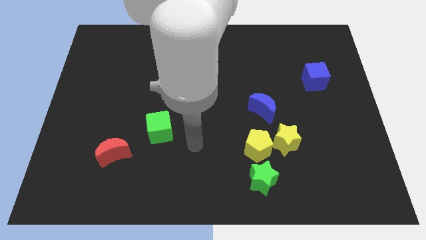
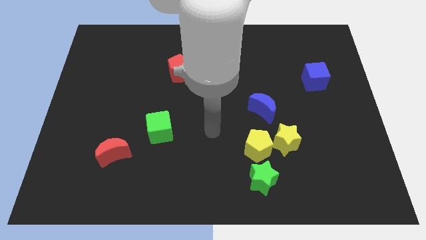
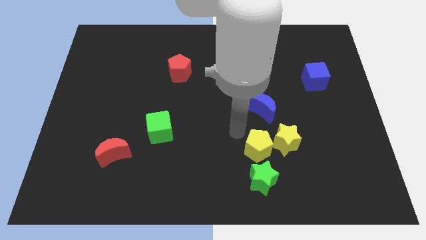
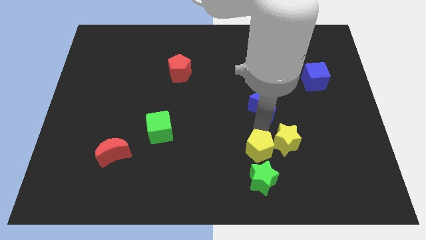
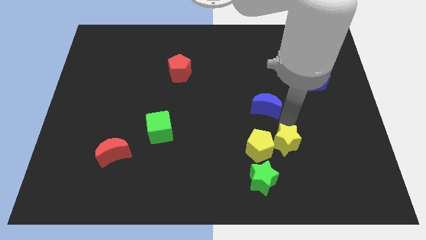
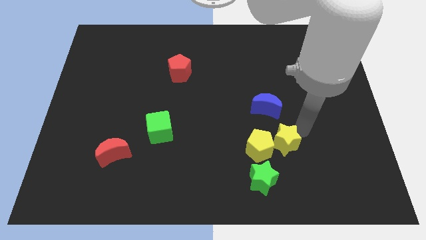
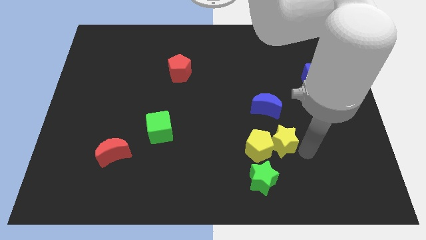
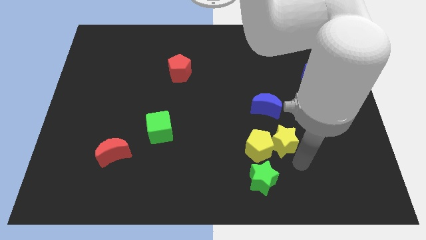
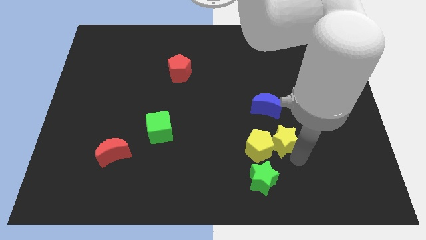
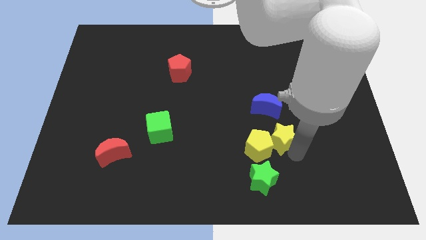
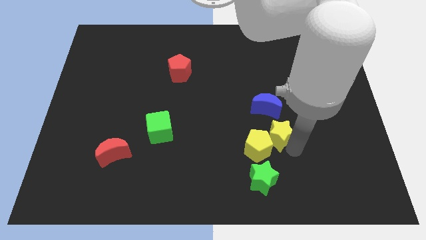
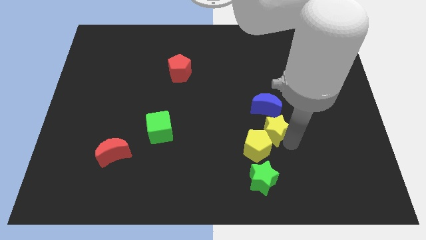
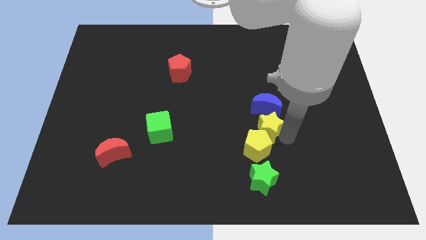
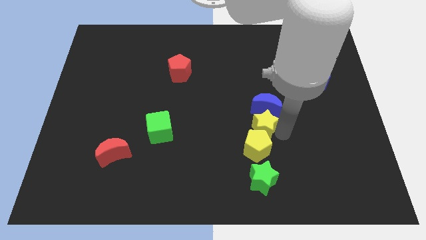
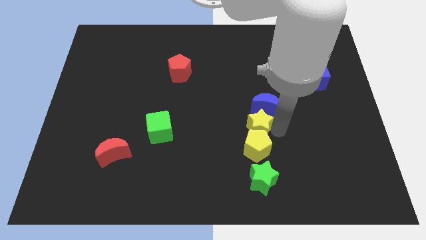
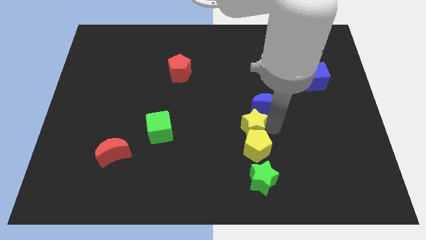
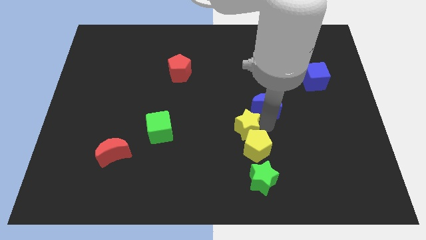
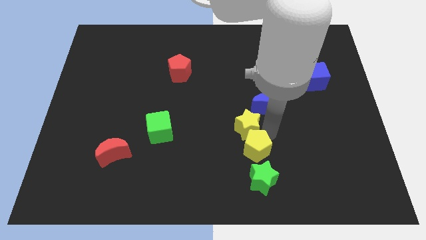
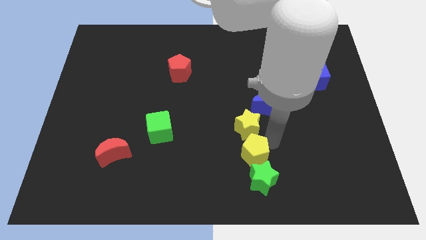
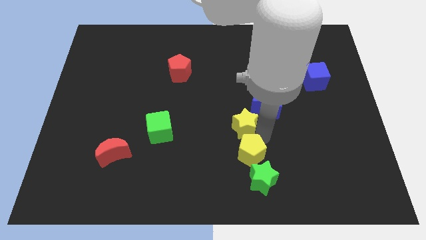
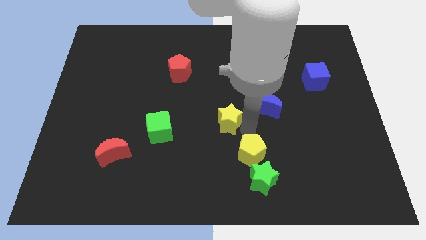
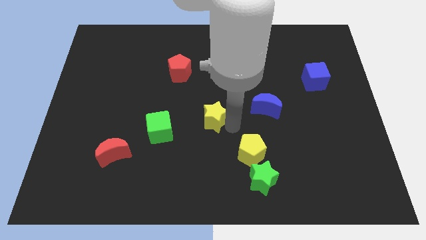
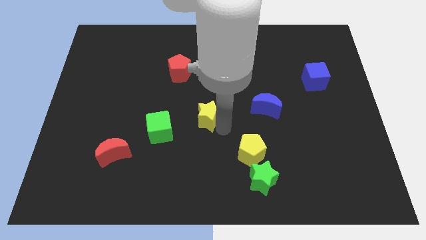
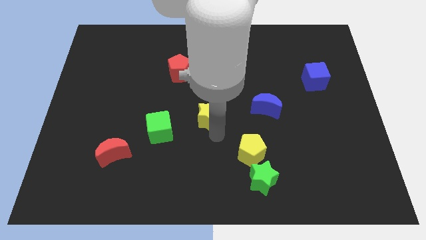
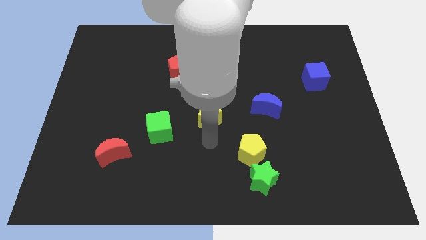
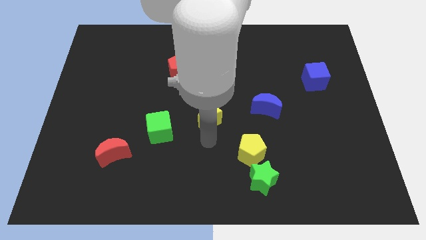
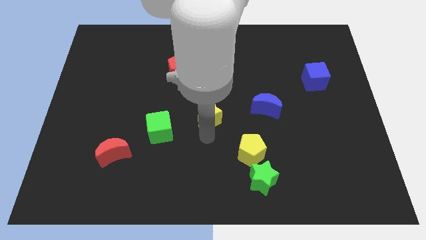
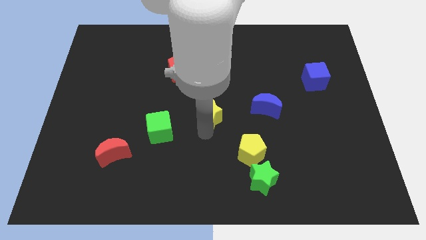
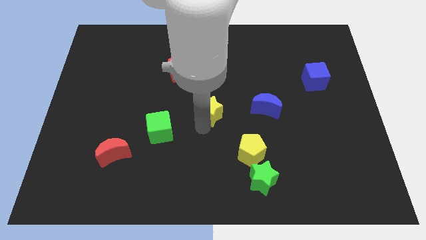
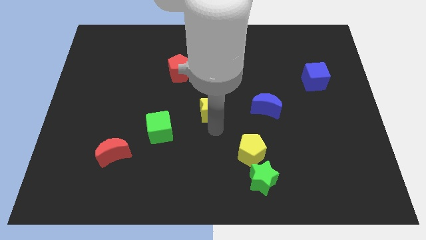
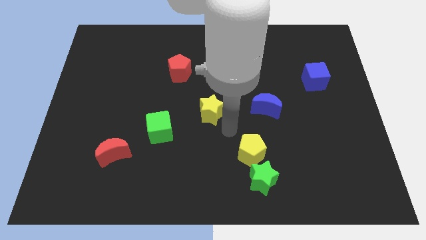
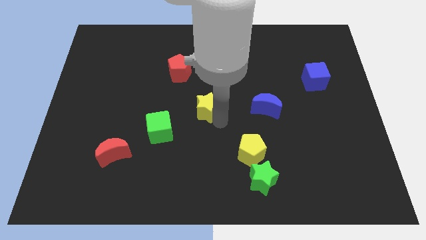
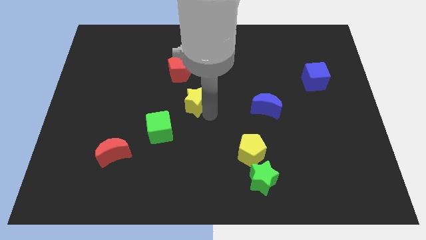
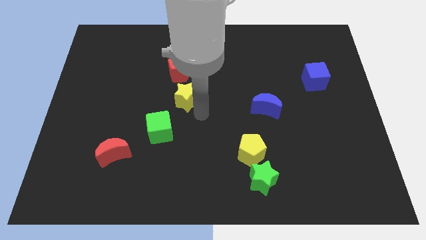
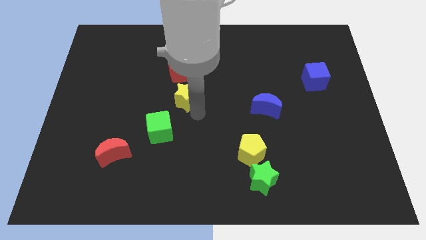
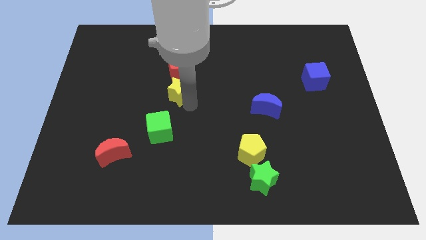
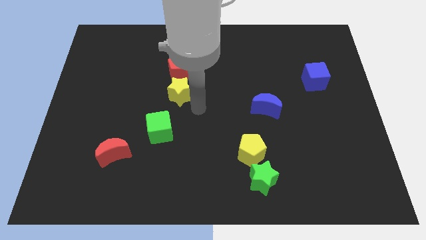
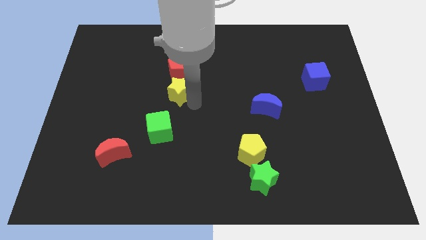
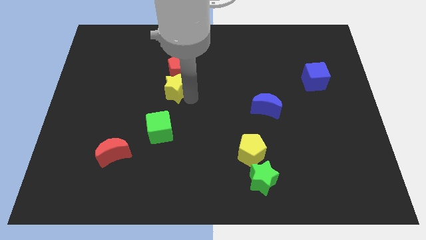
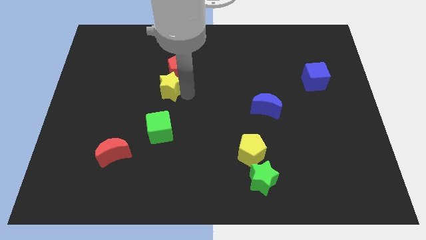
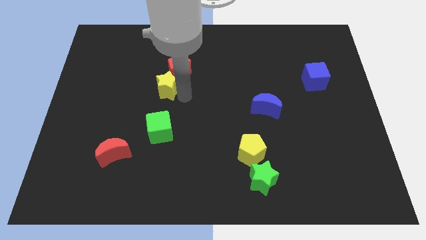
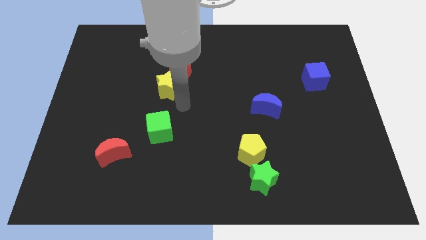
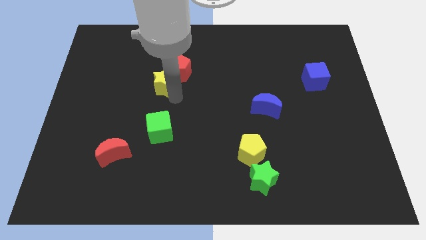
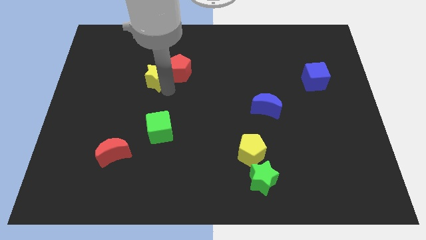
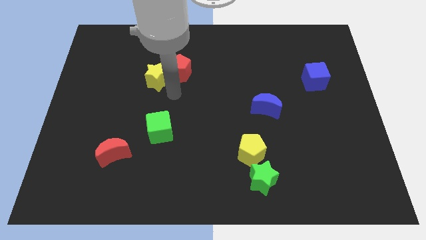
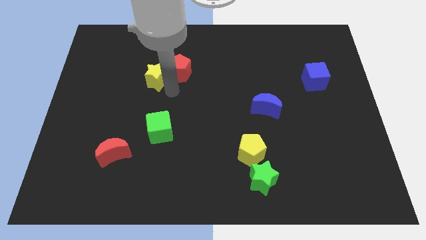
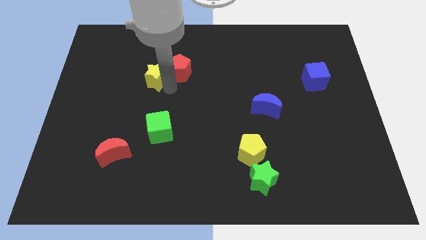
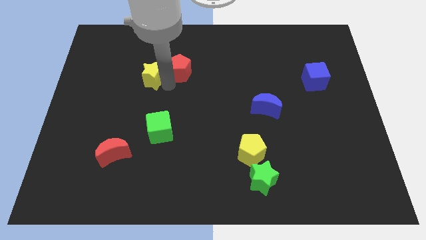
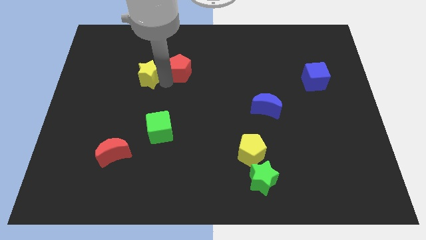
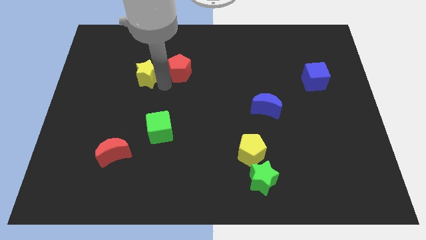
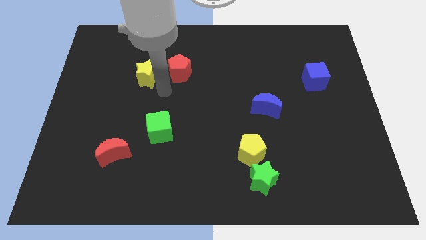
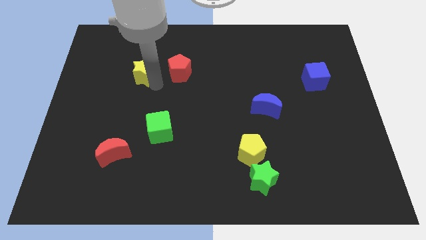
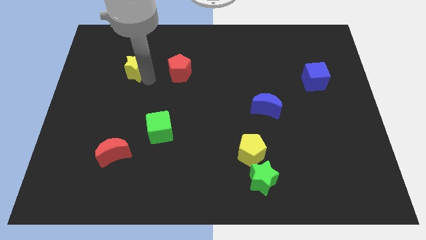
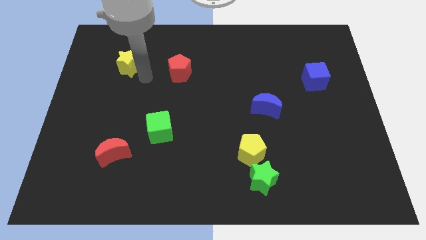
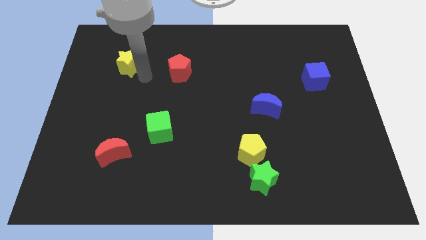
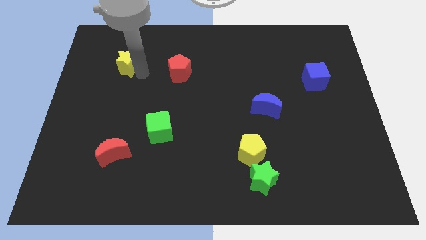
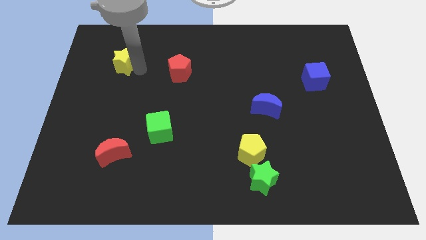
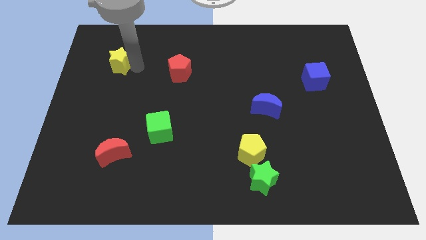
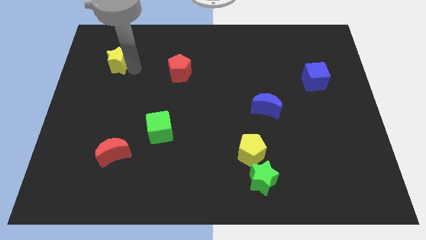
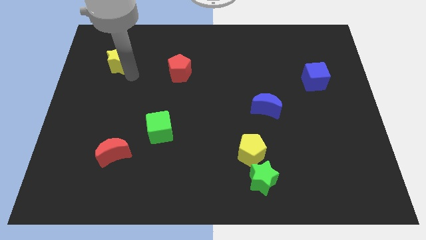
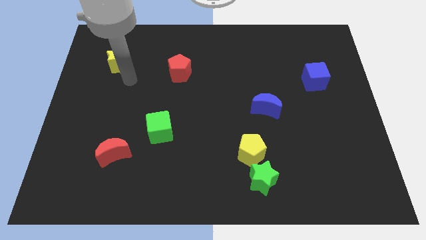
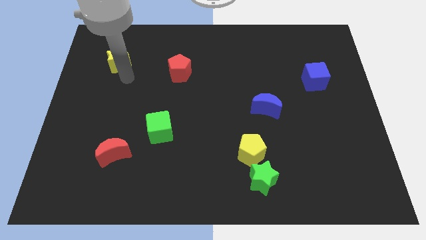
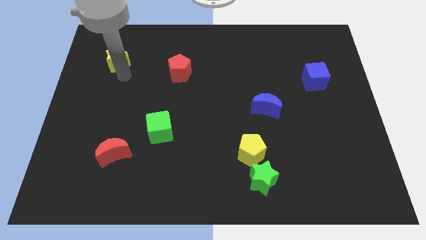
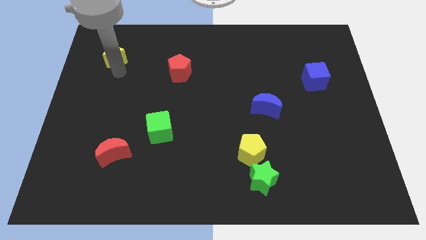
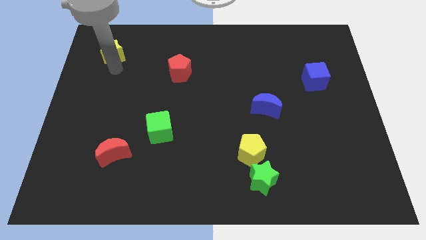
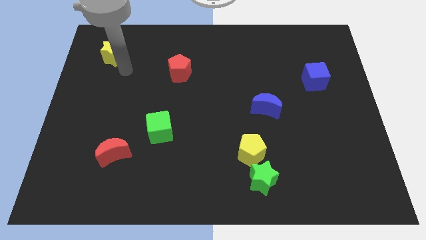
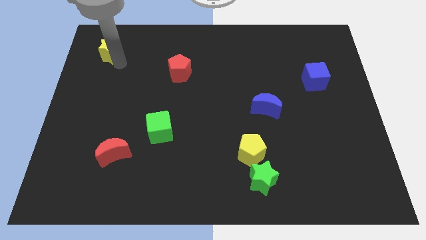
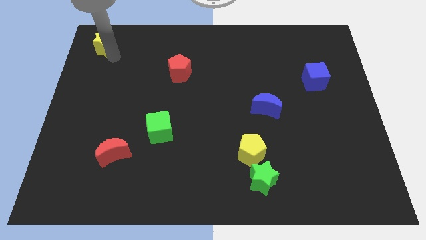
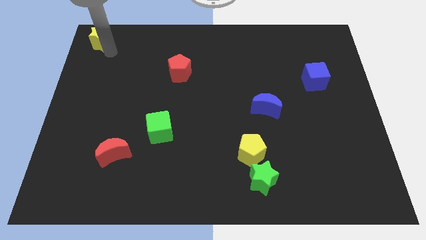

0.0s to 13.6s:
push the yellow star to the top left of the board
